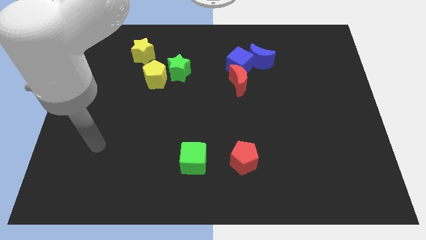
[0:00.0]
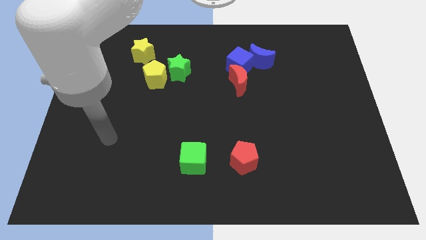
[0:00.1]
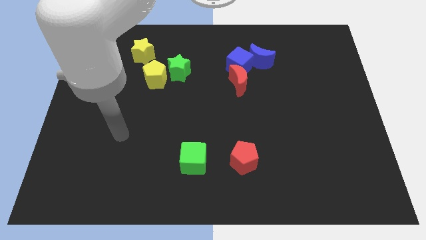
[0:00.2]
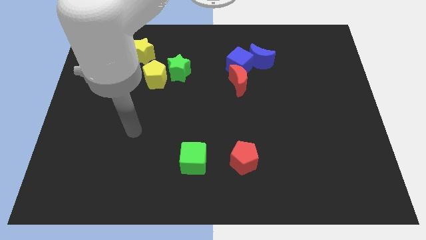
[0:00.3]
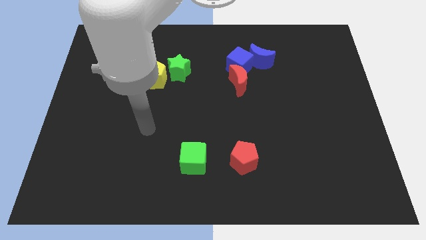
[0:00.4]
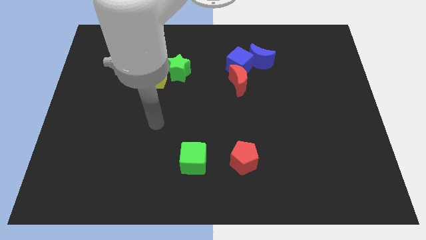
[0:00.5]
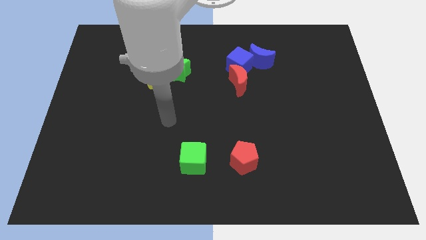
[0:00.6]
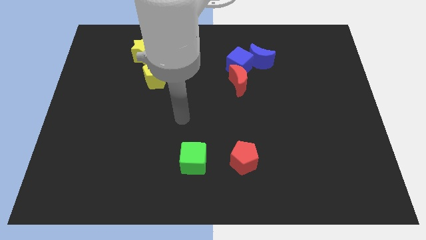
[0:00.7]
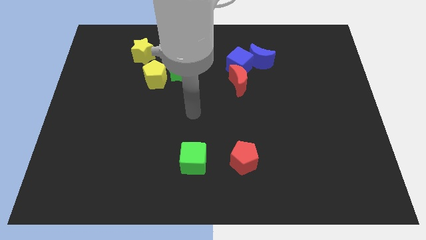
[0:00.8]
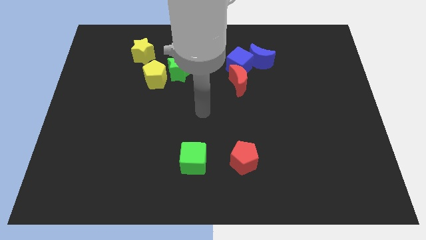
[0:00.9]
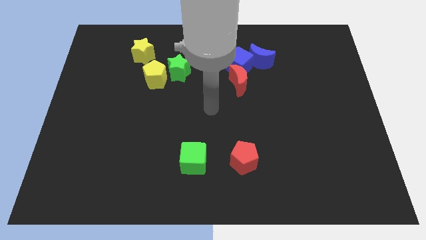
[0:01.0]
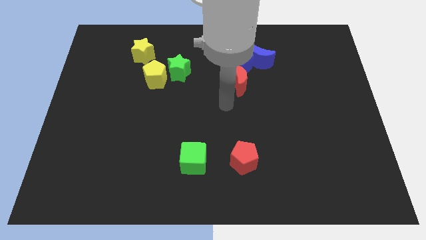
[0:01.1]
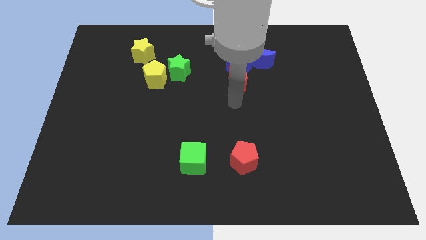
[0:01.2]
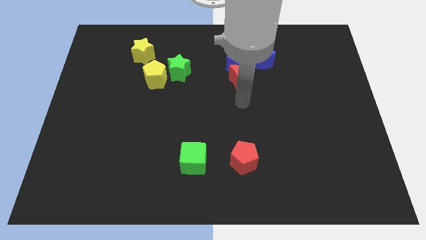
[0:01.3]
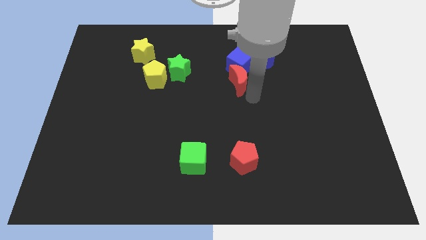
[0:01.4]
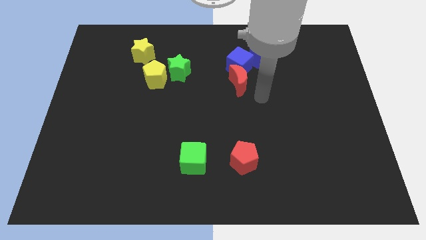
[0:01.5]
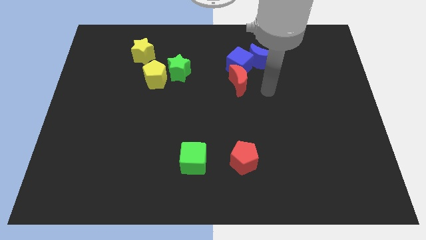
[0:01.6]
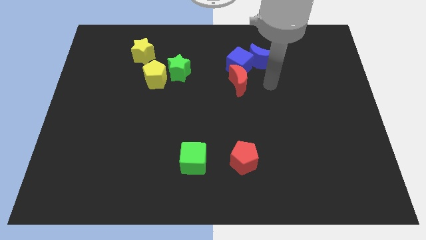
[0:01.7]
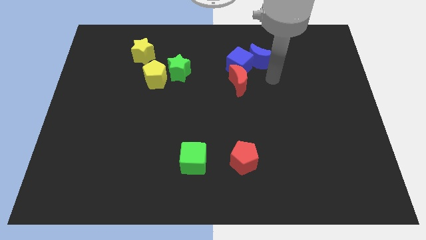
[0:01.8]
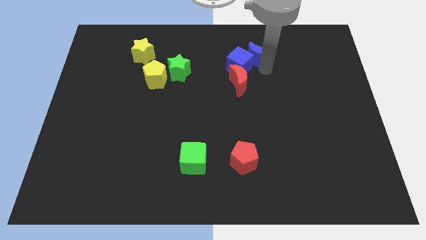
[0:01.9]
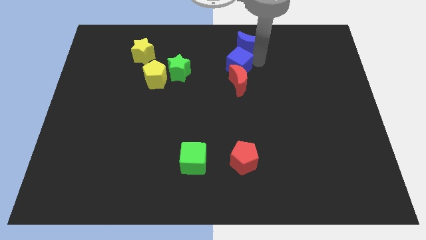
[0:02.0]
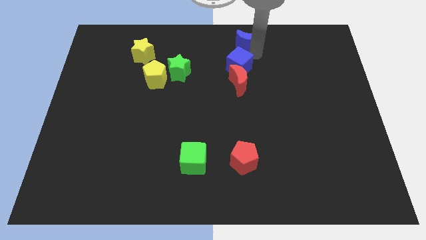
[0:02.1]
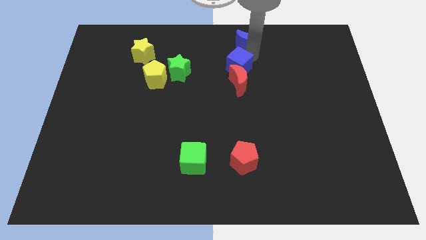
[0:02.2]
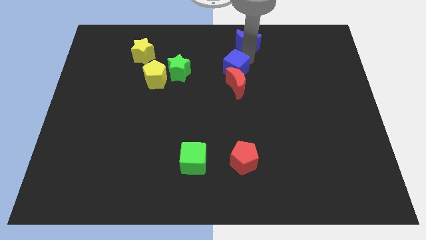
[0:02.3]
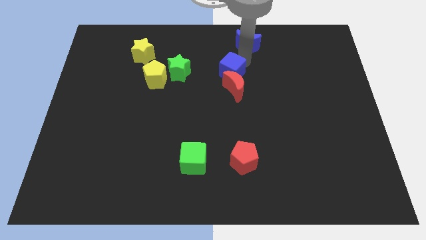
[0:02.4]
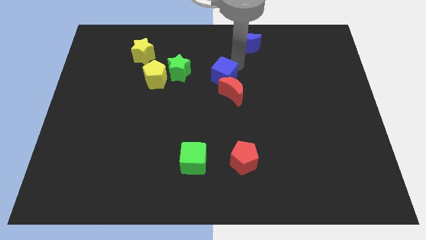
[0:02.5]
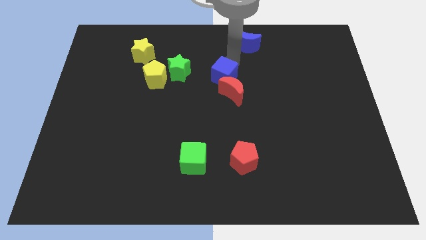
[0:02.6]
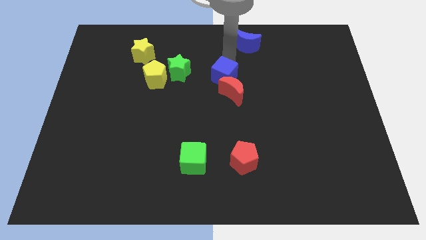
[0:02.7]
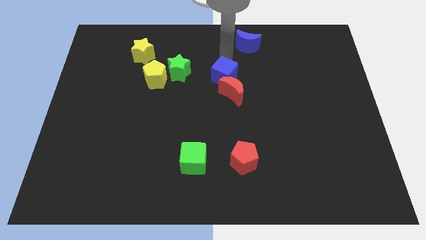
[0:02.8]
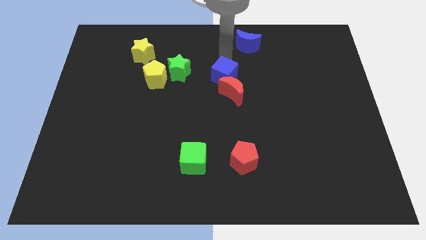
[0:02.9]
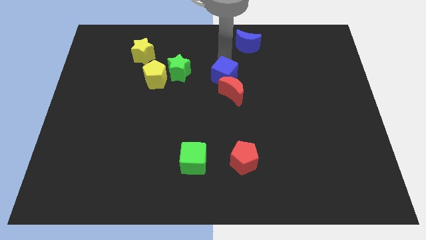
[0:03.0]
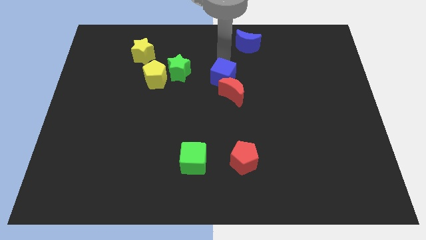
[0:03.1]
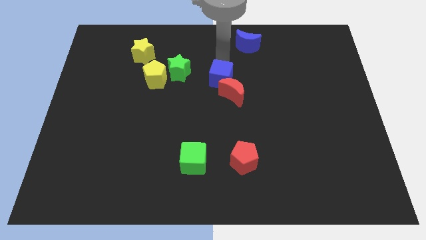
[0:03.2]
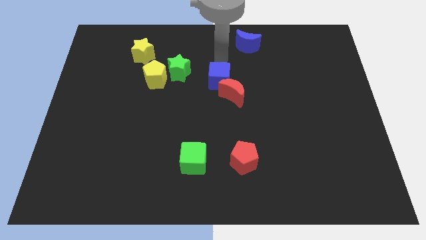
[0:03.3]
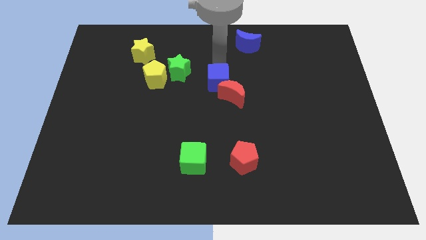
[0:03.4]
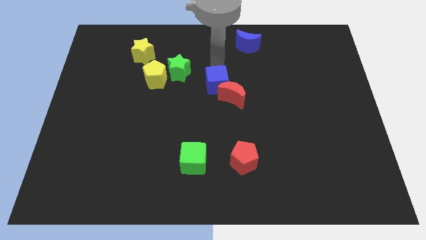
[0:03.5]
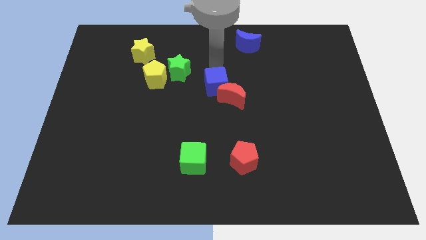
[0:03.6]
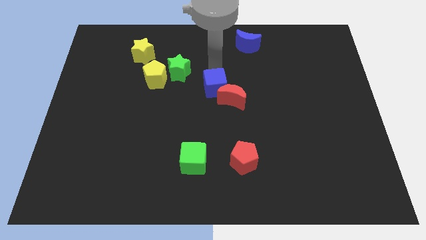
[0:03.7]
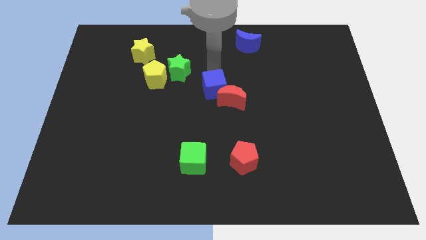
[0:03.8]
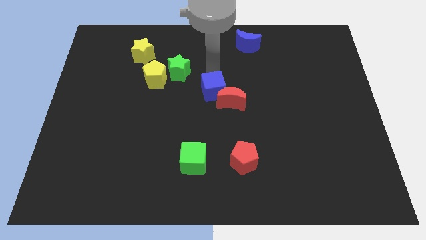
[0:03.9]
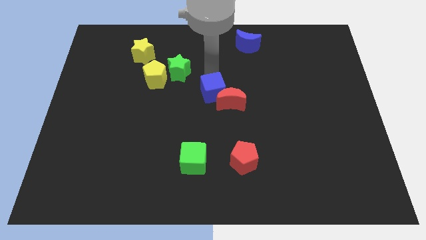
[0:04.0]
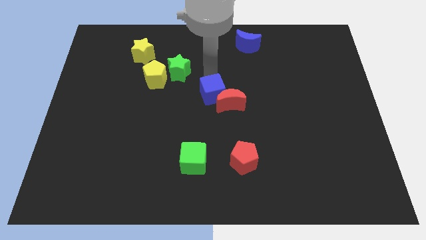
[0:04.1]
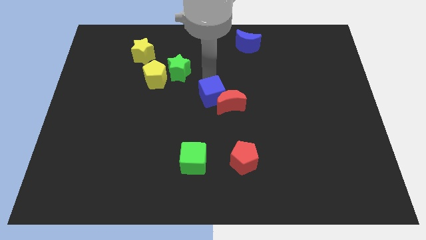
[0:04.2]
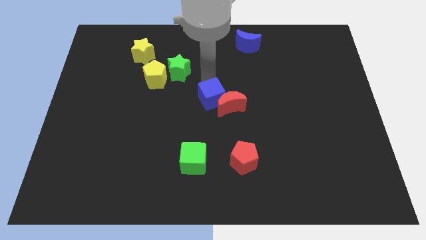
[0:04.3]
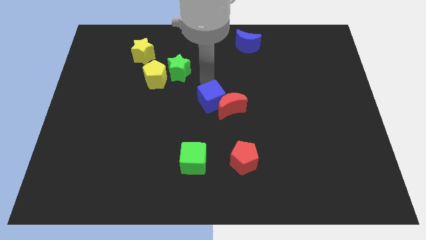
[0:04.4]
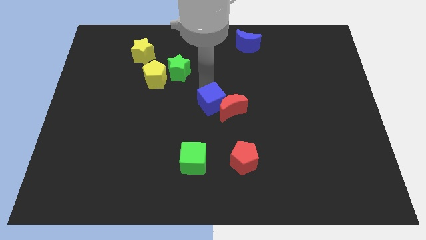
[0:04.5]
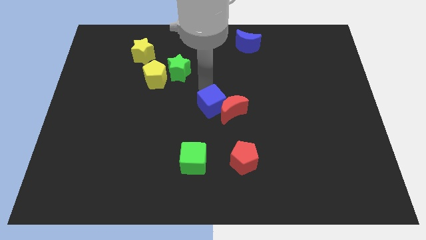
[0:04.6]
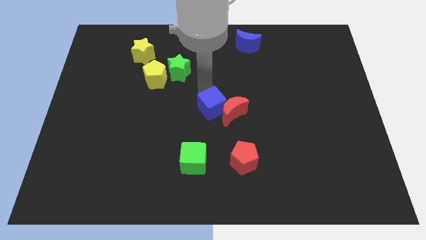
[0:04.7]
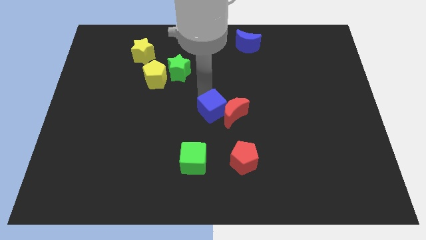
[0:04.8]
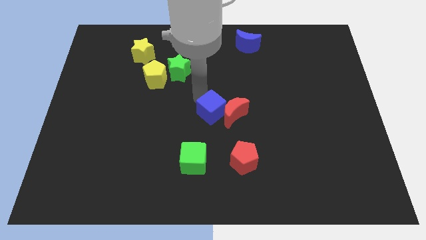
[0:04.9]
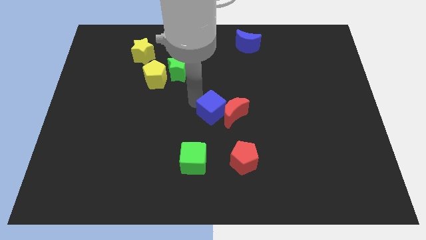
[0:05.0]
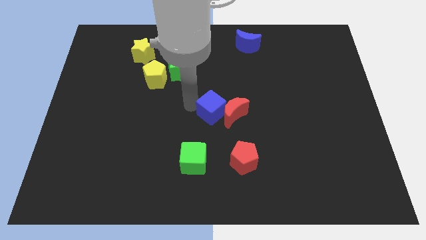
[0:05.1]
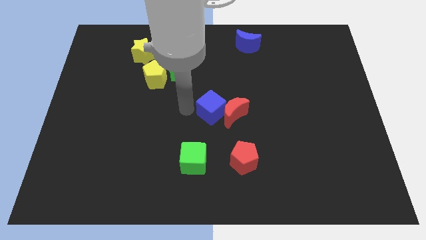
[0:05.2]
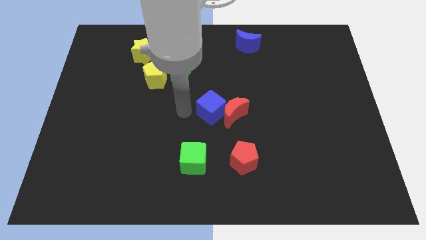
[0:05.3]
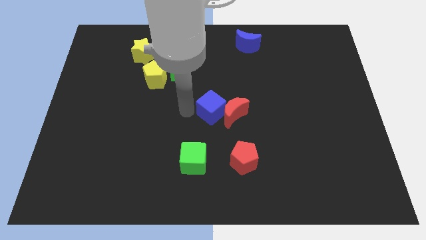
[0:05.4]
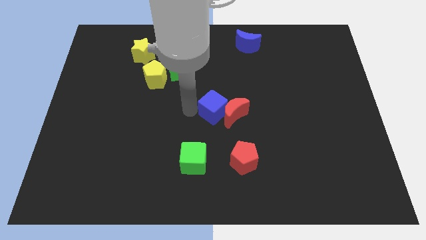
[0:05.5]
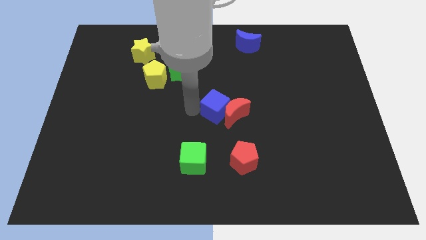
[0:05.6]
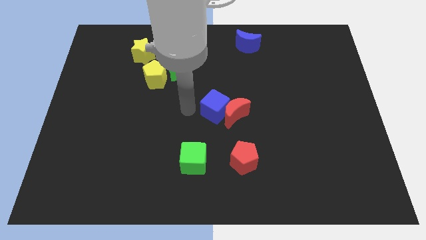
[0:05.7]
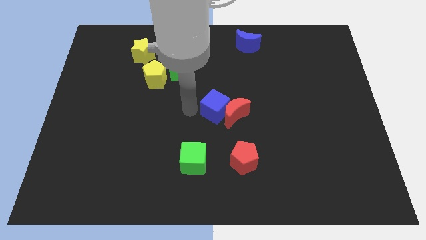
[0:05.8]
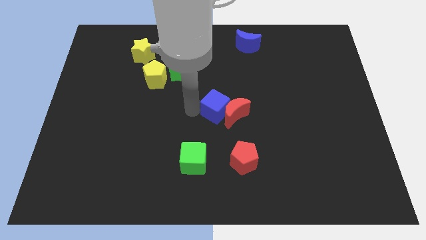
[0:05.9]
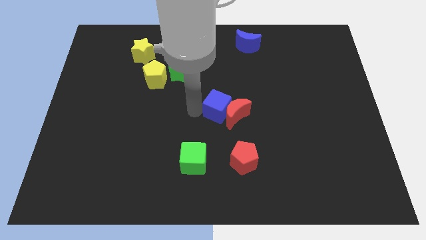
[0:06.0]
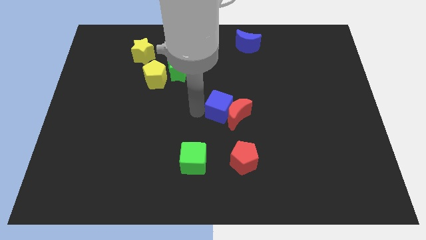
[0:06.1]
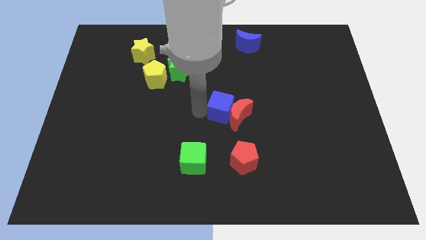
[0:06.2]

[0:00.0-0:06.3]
put the blue cube to the top of the red pentagon

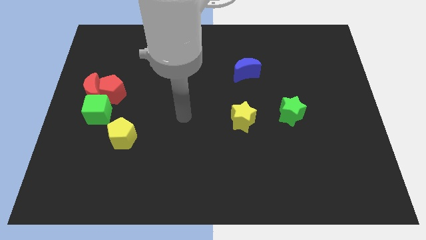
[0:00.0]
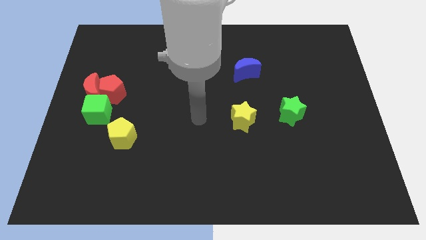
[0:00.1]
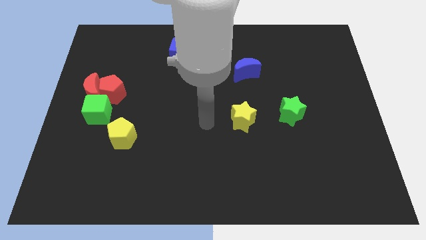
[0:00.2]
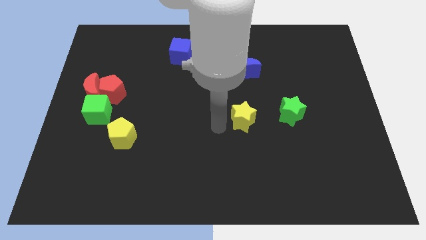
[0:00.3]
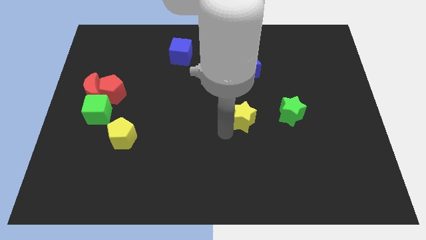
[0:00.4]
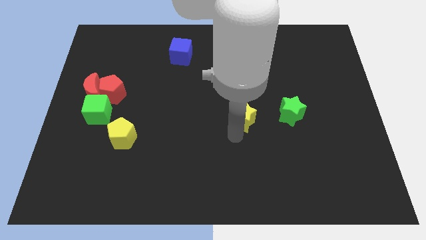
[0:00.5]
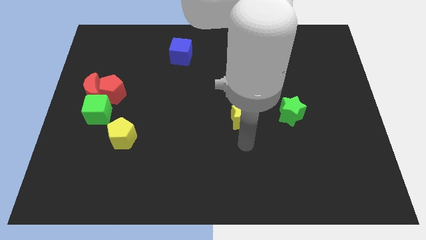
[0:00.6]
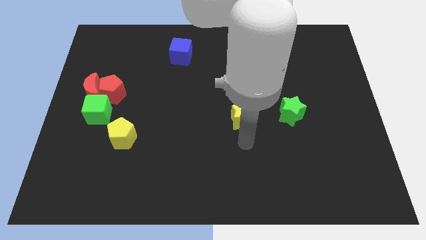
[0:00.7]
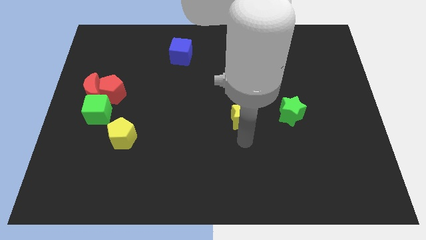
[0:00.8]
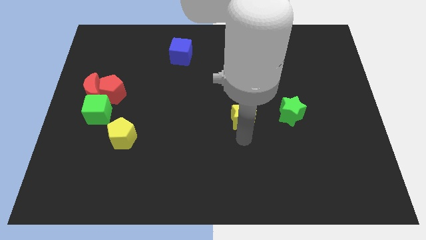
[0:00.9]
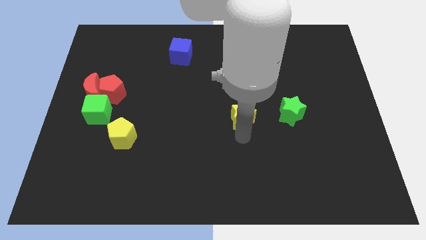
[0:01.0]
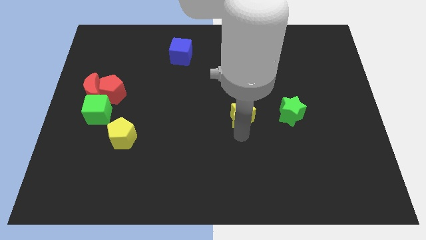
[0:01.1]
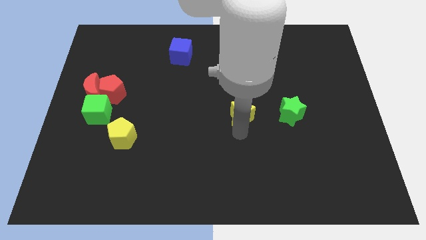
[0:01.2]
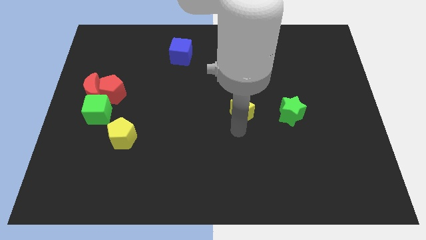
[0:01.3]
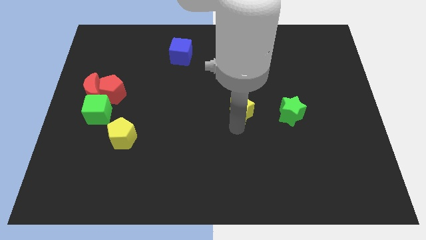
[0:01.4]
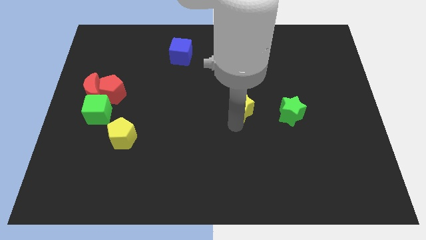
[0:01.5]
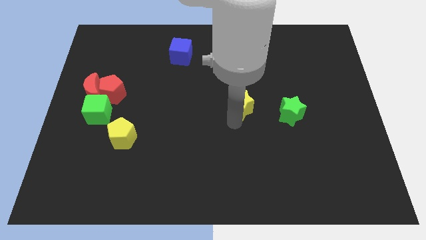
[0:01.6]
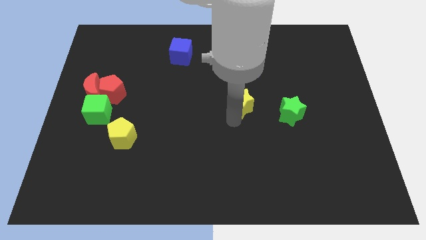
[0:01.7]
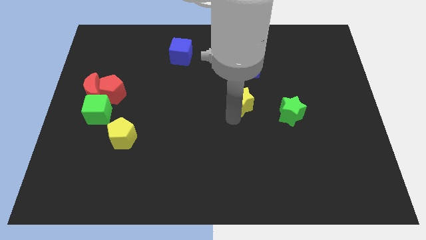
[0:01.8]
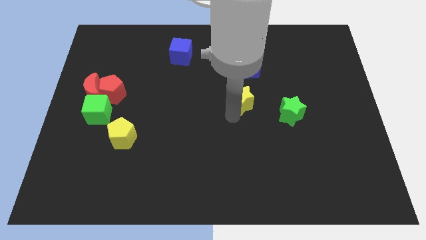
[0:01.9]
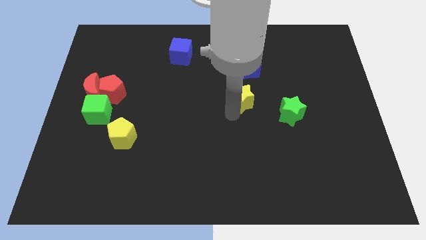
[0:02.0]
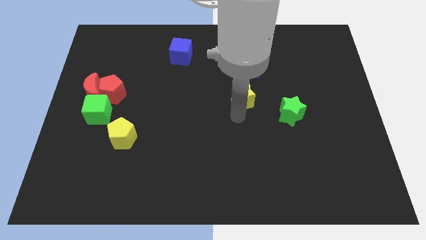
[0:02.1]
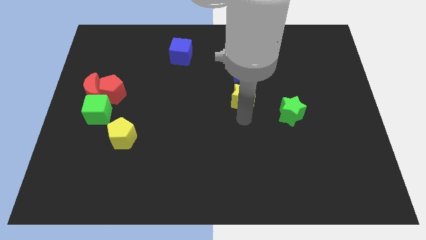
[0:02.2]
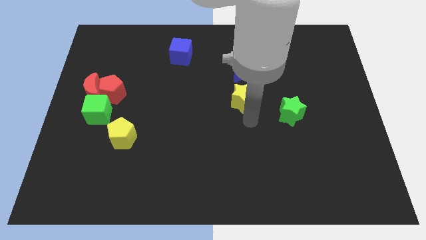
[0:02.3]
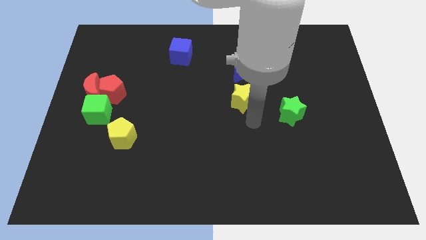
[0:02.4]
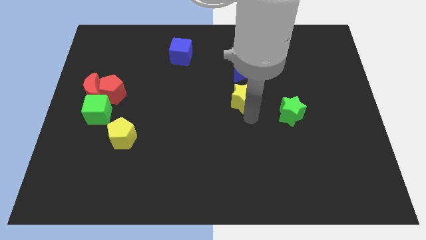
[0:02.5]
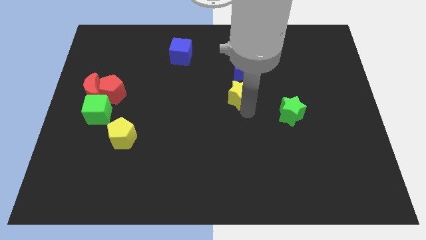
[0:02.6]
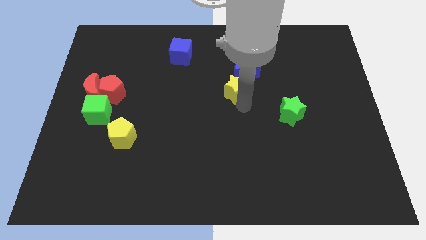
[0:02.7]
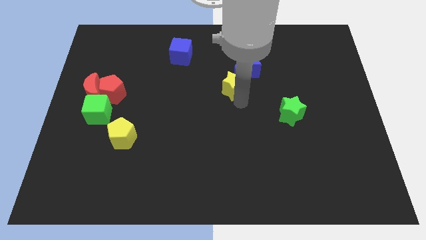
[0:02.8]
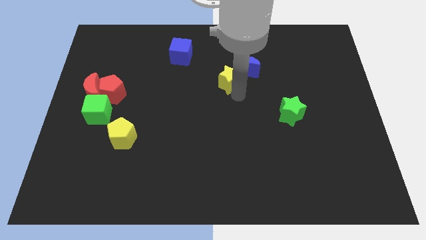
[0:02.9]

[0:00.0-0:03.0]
slide the yellow star to the left side of the blue moon
